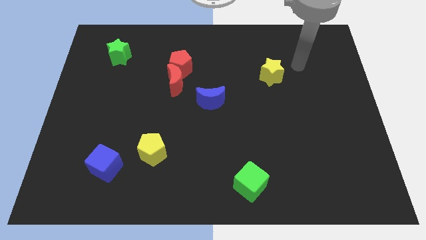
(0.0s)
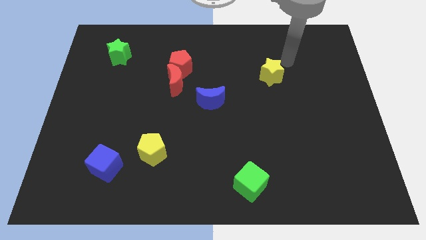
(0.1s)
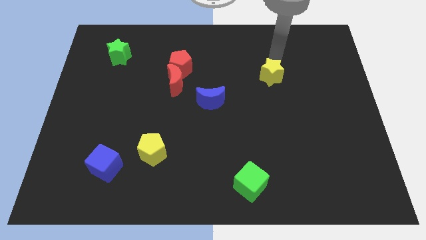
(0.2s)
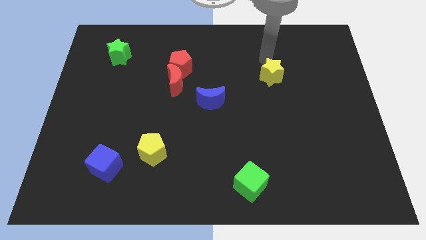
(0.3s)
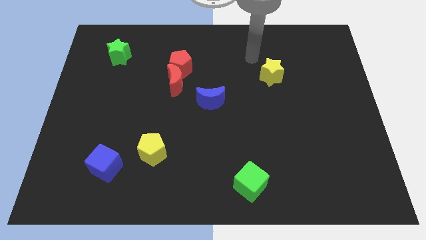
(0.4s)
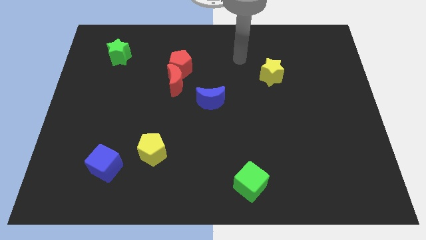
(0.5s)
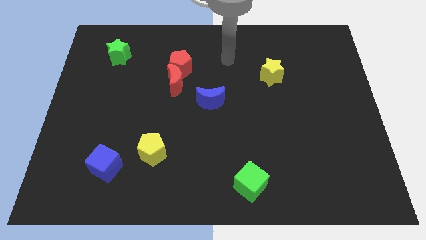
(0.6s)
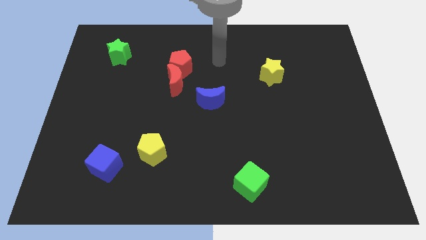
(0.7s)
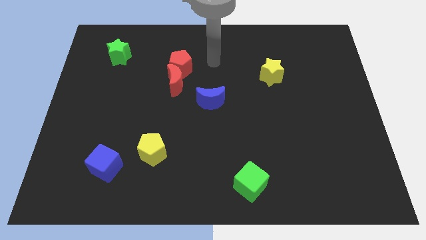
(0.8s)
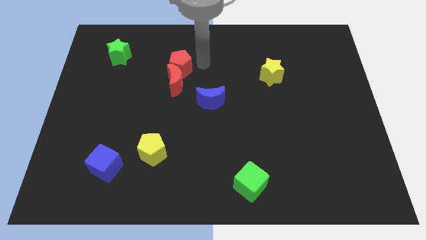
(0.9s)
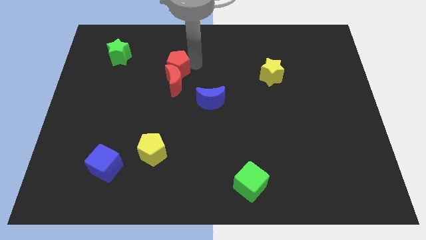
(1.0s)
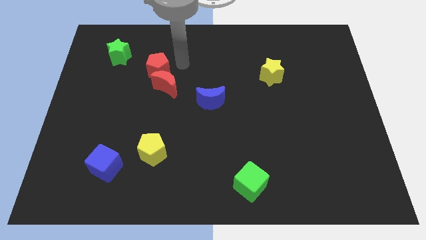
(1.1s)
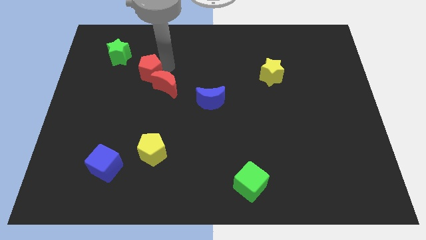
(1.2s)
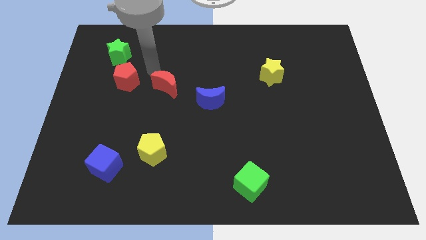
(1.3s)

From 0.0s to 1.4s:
move the red moon away from the red pentagon

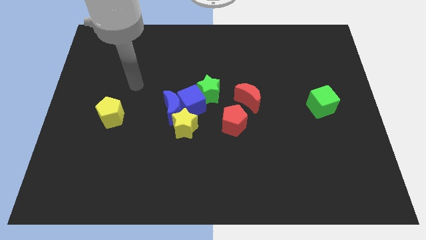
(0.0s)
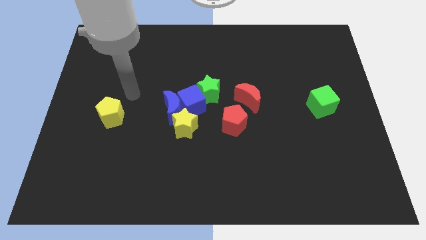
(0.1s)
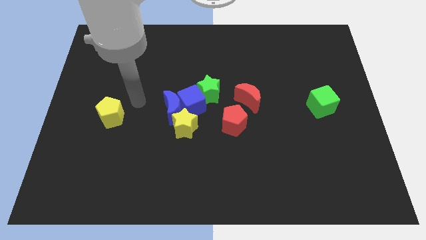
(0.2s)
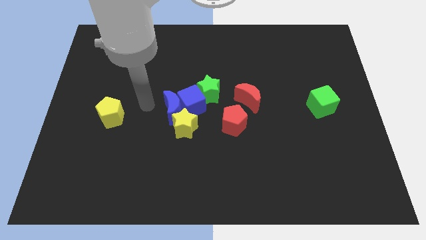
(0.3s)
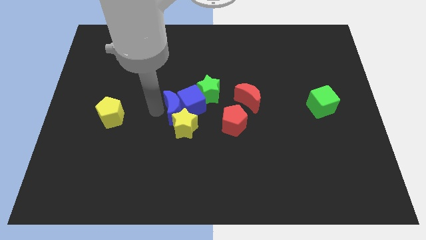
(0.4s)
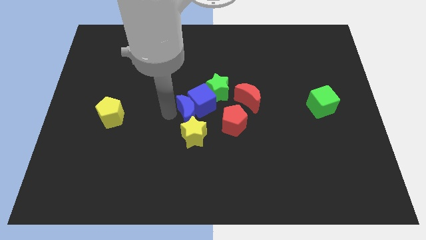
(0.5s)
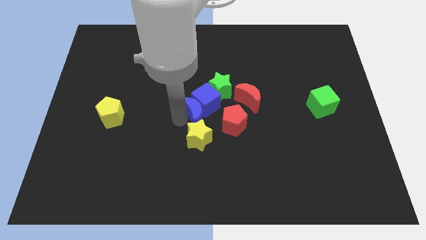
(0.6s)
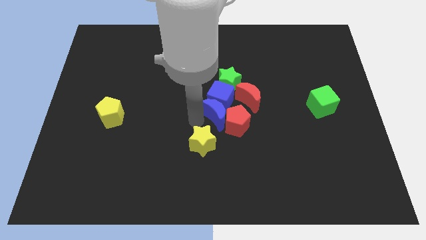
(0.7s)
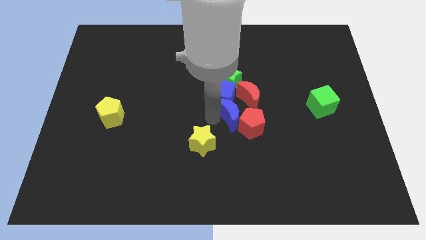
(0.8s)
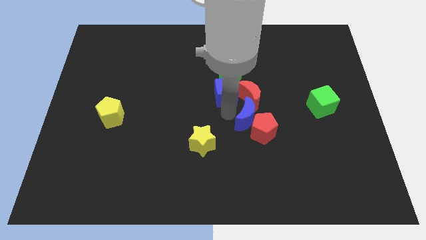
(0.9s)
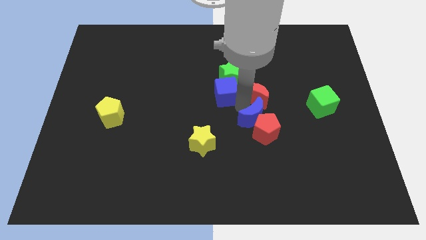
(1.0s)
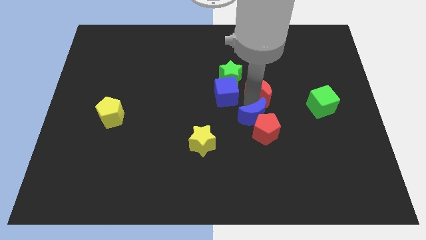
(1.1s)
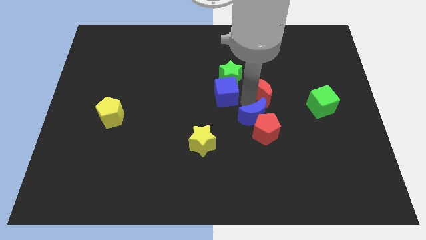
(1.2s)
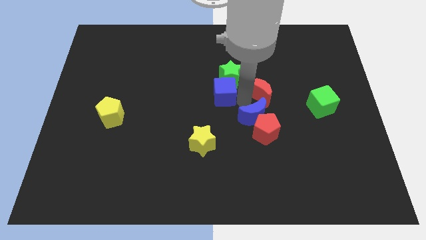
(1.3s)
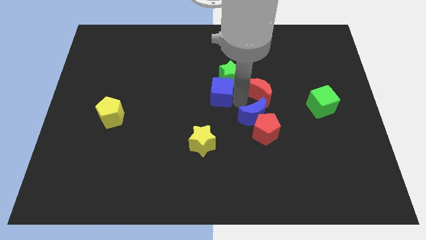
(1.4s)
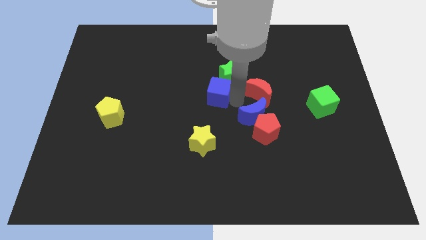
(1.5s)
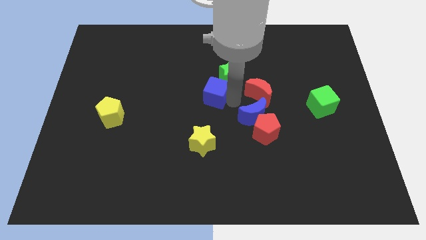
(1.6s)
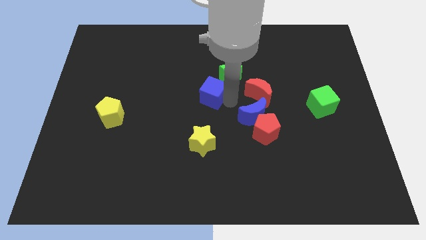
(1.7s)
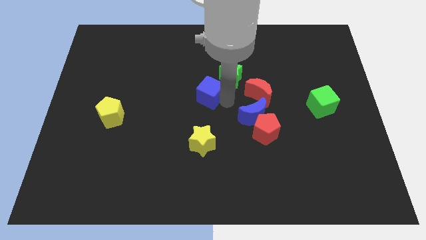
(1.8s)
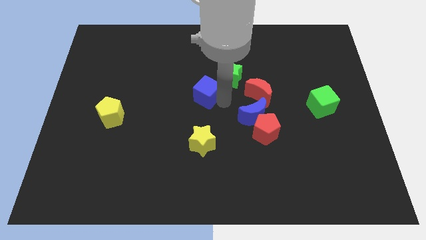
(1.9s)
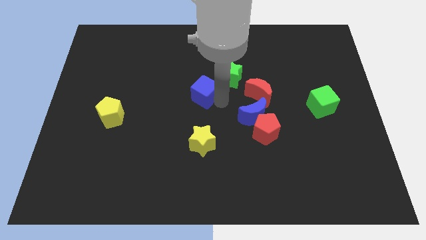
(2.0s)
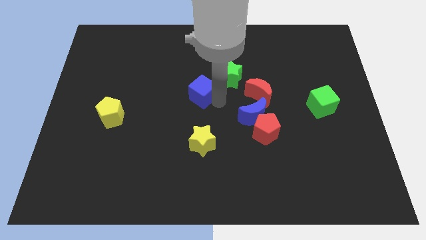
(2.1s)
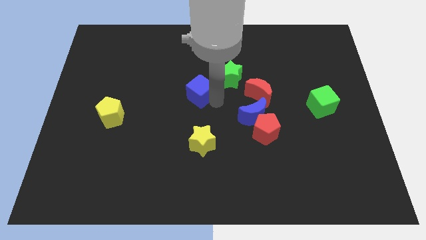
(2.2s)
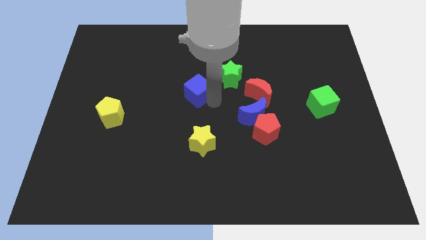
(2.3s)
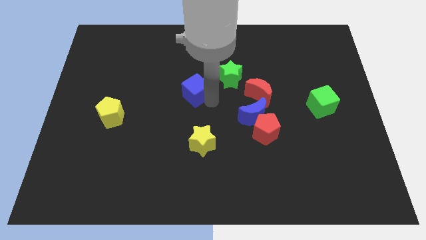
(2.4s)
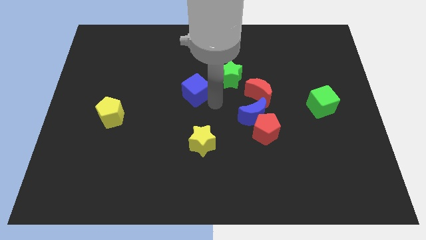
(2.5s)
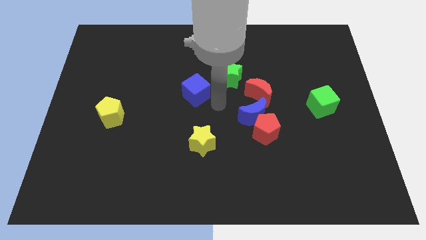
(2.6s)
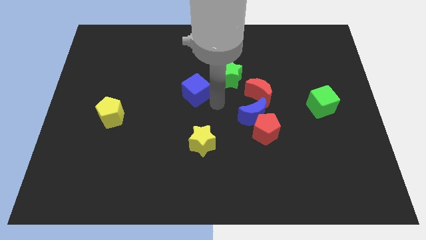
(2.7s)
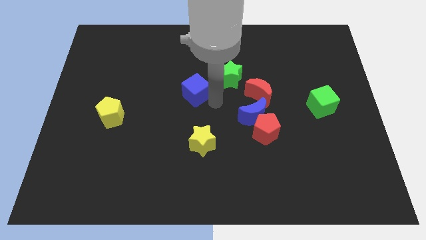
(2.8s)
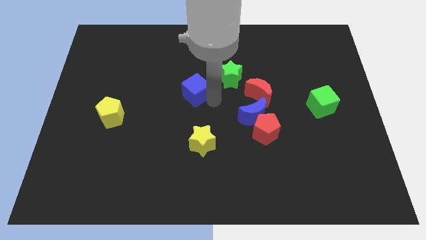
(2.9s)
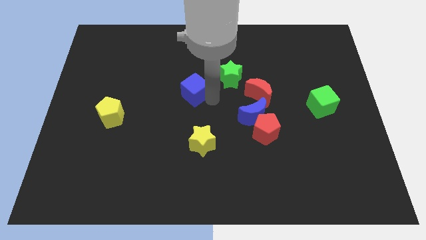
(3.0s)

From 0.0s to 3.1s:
move the blue cube away from the blue moon, green star, and yellow star

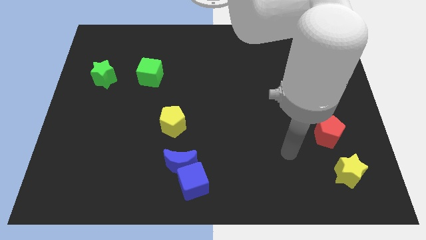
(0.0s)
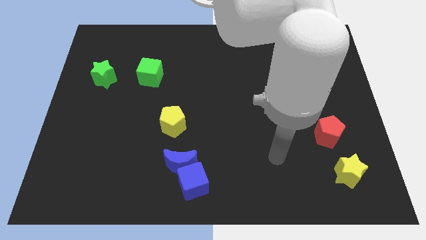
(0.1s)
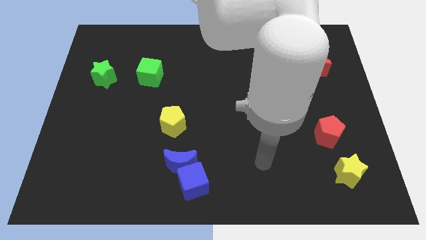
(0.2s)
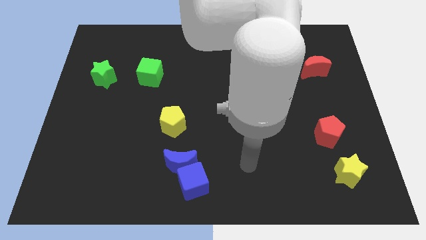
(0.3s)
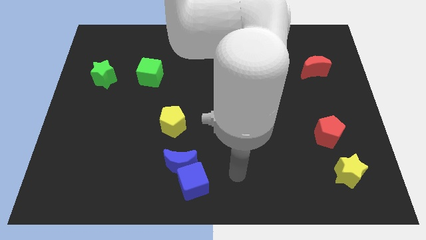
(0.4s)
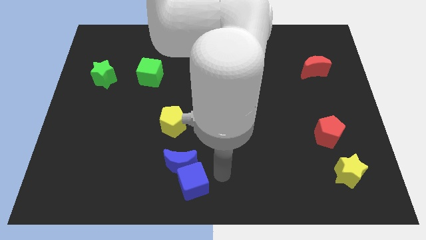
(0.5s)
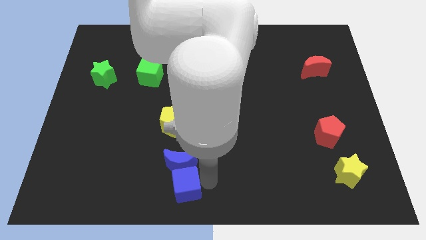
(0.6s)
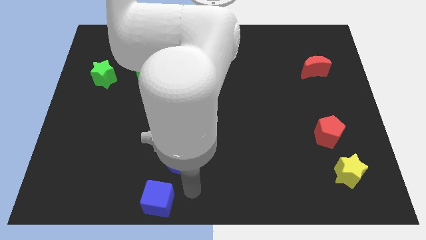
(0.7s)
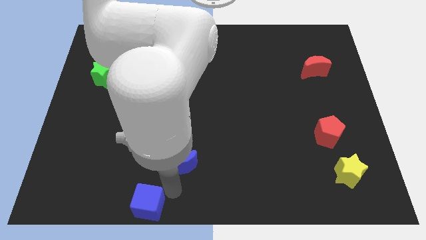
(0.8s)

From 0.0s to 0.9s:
move the blue moon away from the blue cube

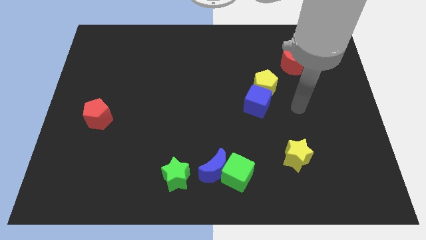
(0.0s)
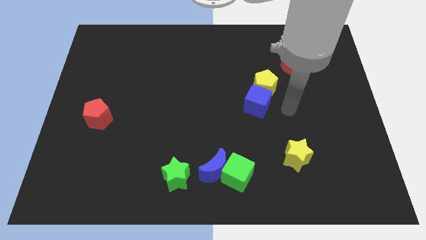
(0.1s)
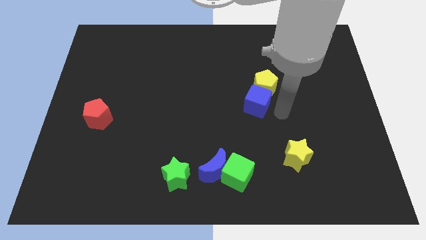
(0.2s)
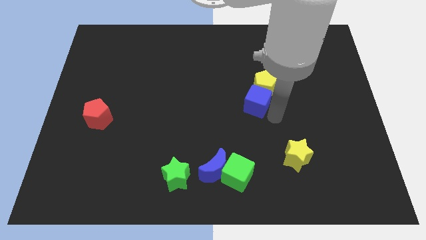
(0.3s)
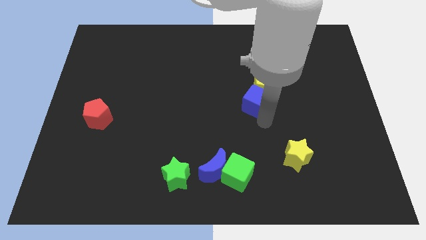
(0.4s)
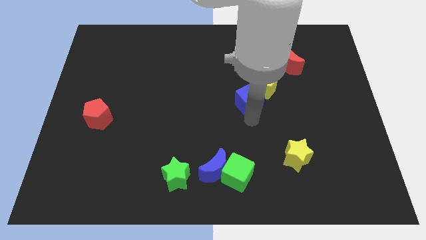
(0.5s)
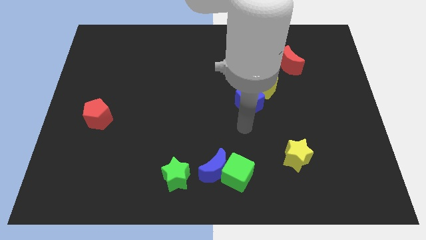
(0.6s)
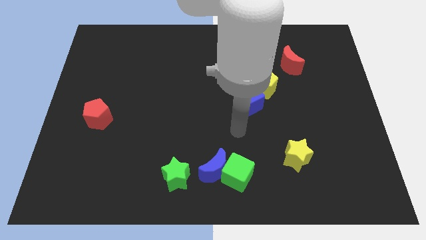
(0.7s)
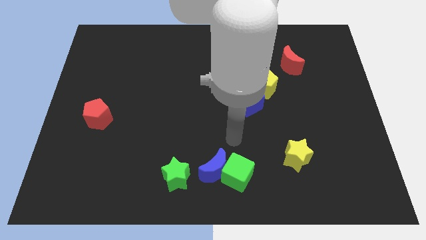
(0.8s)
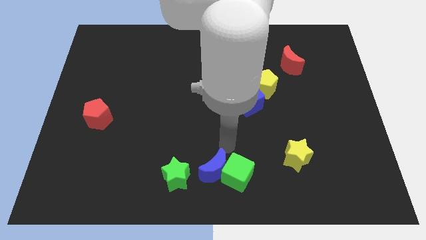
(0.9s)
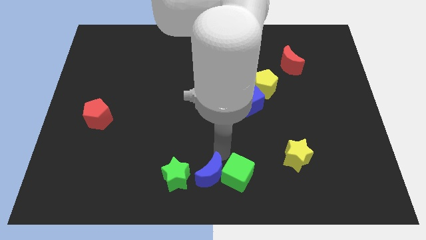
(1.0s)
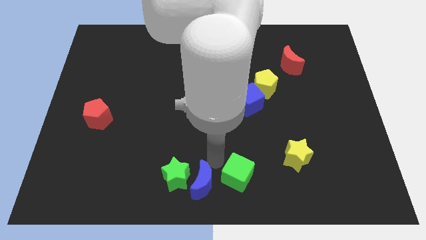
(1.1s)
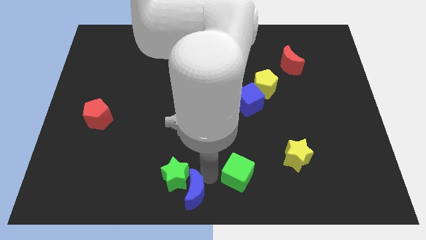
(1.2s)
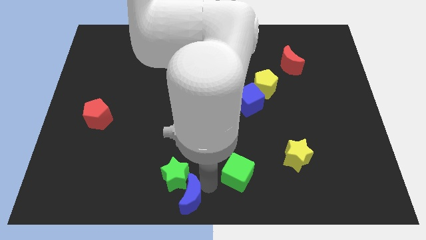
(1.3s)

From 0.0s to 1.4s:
move the green cube away from the blue moon

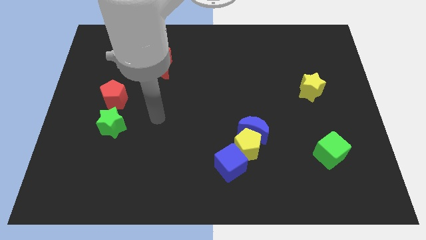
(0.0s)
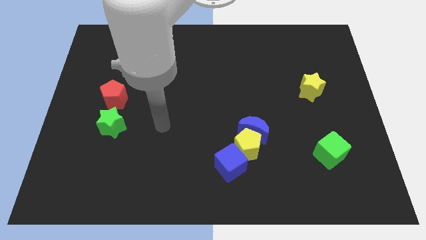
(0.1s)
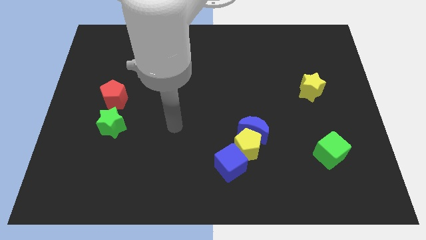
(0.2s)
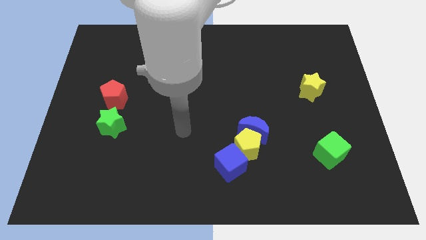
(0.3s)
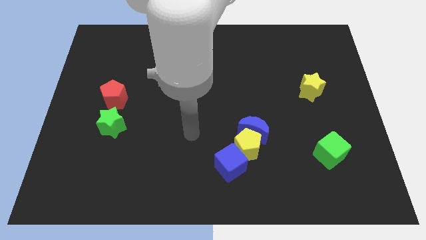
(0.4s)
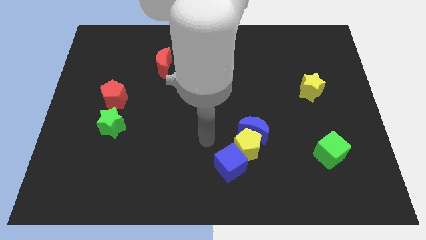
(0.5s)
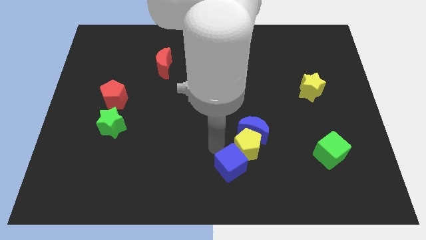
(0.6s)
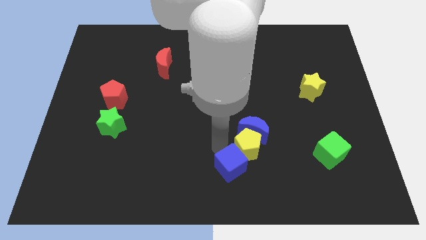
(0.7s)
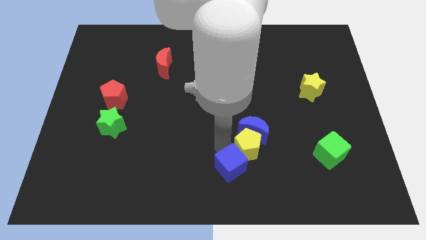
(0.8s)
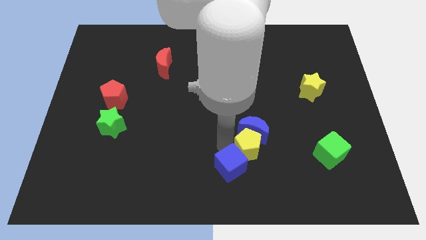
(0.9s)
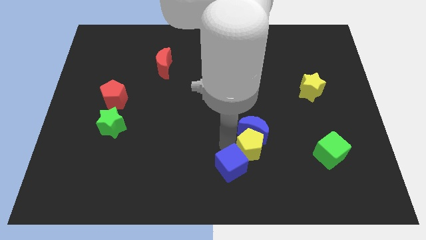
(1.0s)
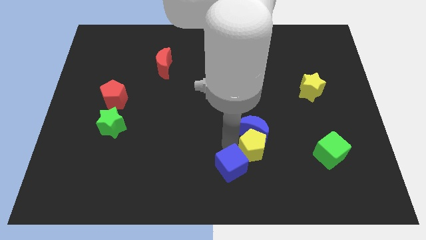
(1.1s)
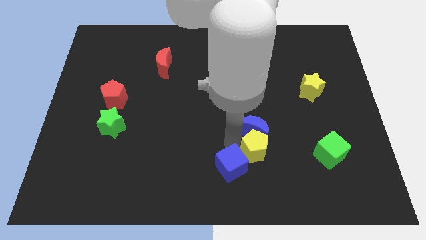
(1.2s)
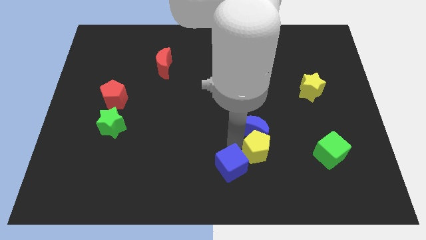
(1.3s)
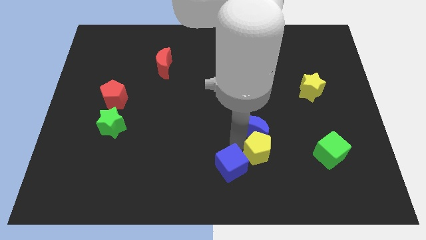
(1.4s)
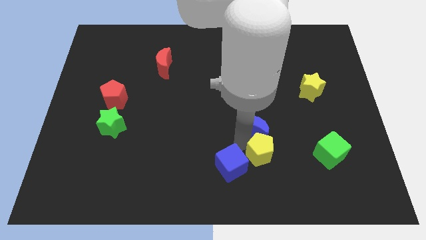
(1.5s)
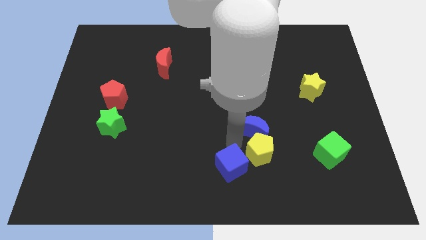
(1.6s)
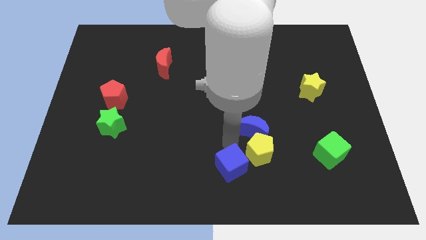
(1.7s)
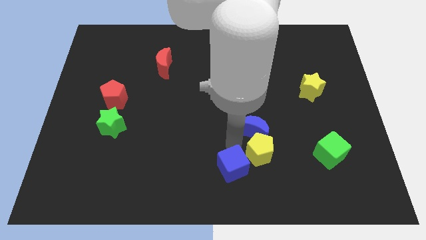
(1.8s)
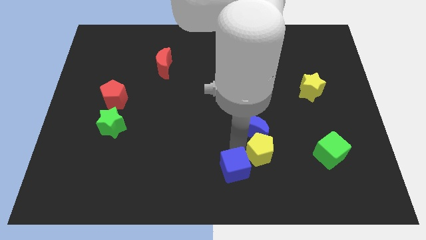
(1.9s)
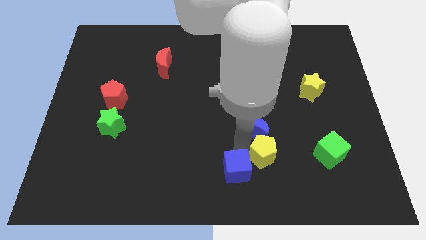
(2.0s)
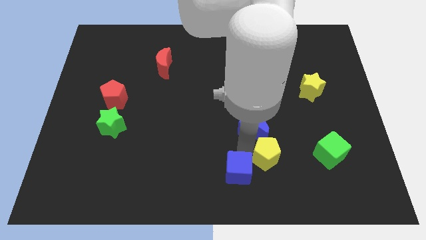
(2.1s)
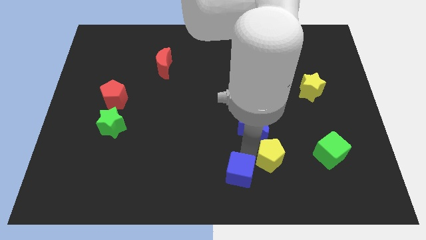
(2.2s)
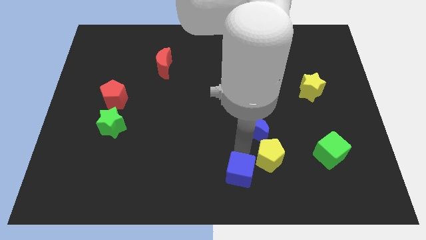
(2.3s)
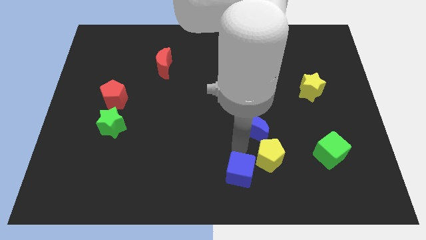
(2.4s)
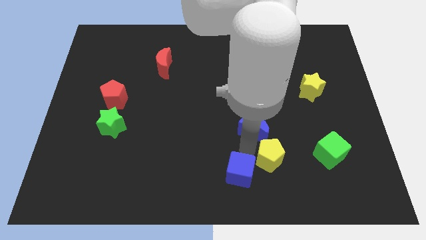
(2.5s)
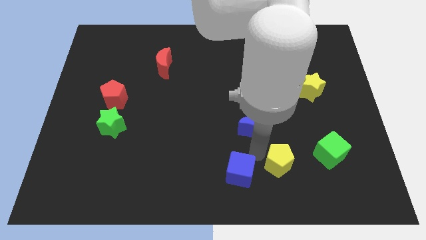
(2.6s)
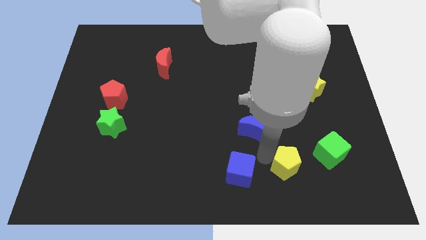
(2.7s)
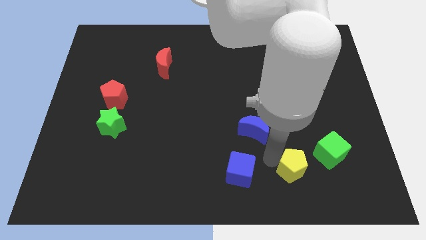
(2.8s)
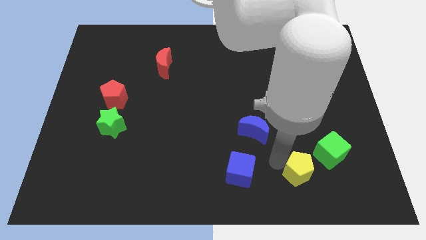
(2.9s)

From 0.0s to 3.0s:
move the yellow pentagon away from the blue moon and blue cube
